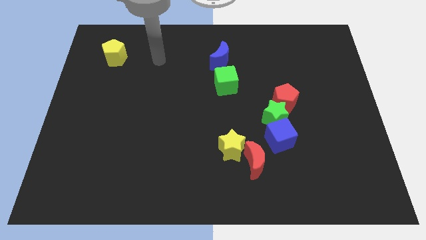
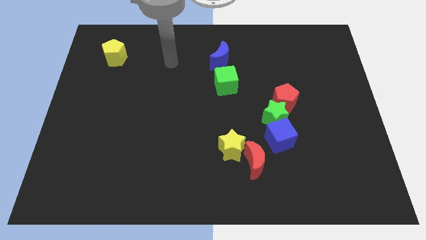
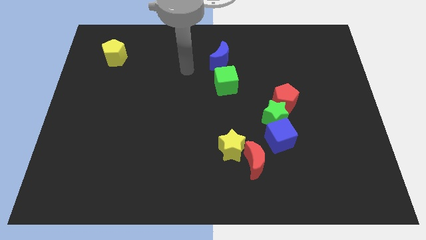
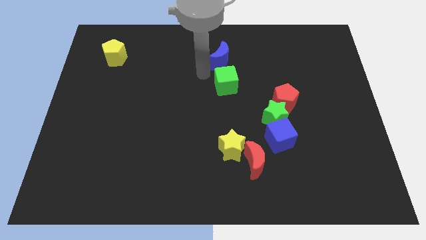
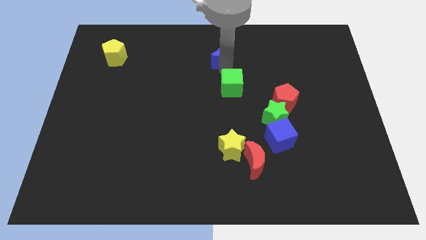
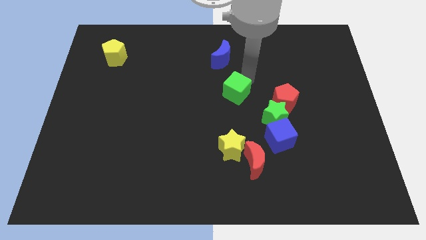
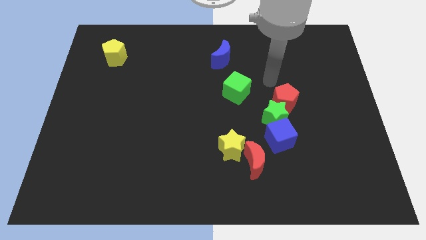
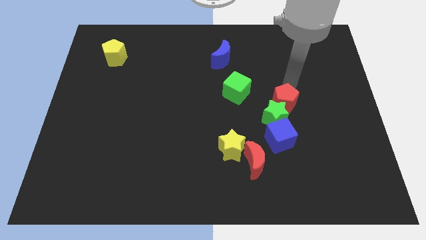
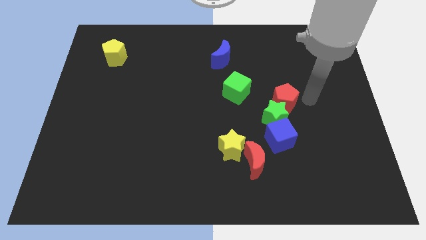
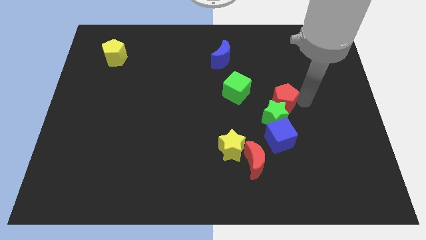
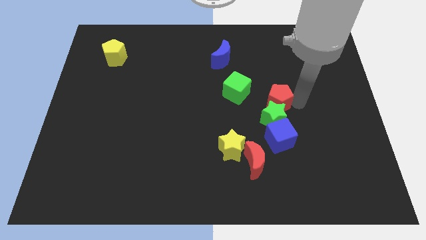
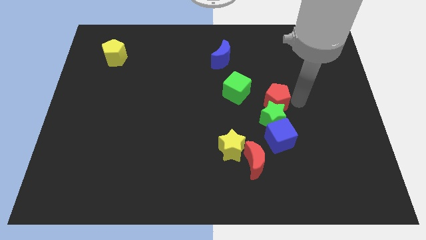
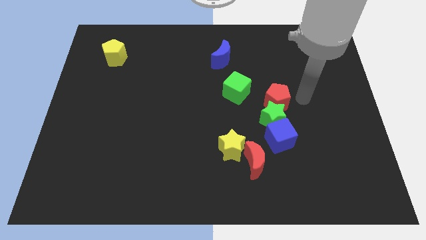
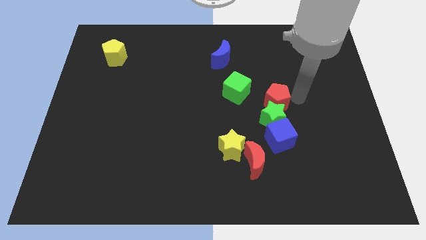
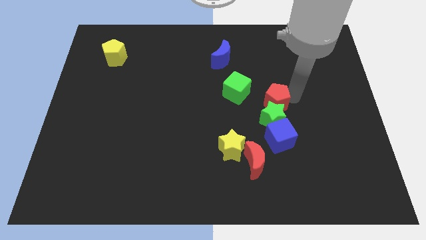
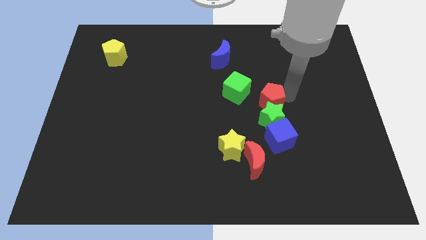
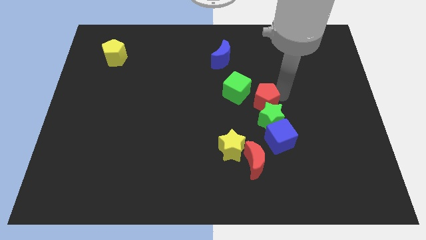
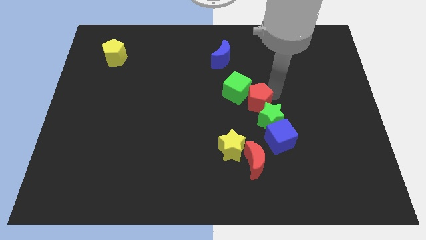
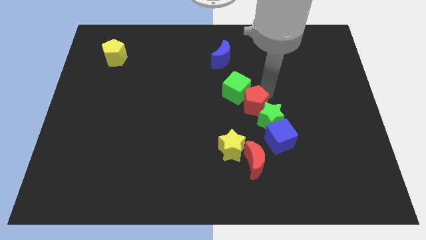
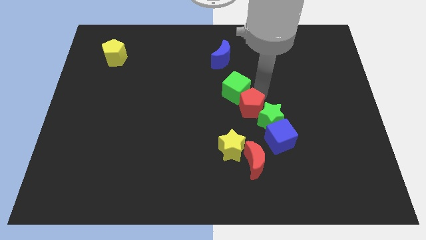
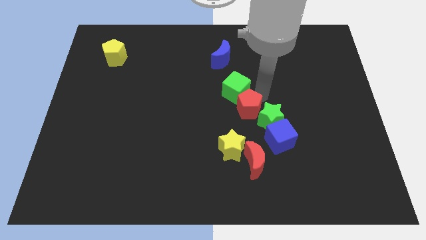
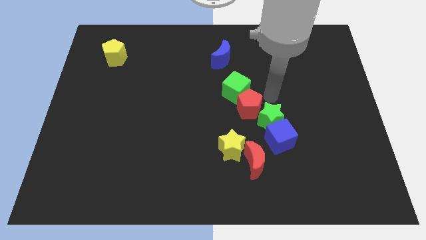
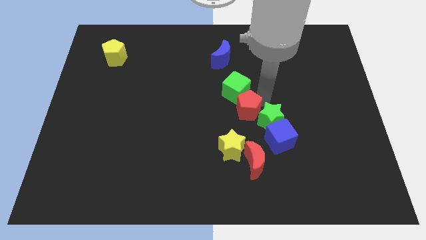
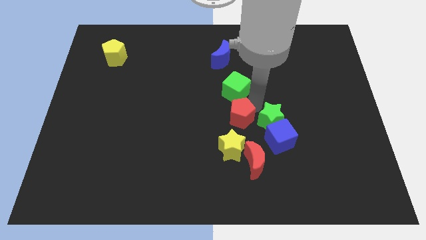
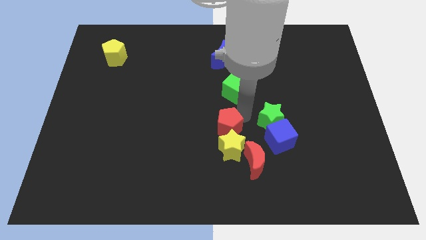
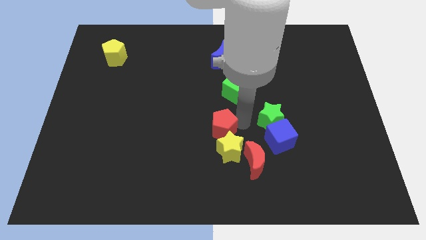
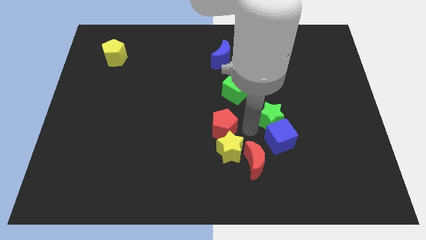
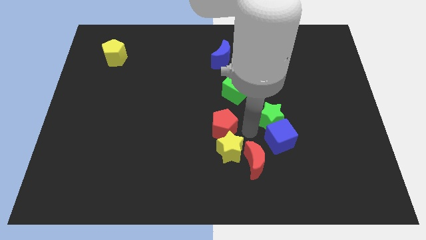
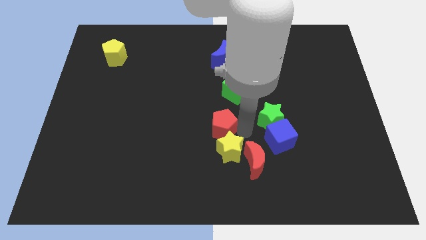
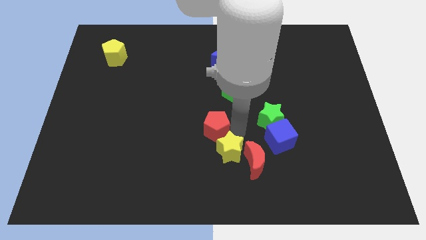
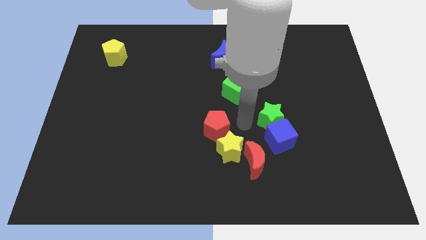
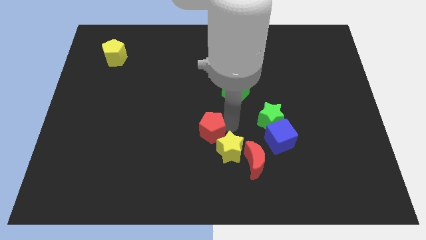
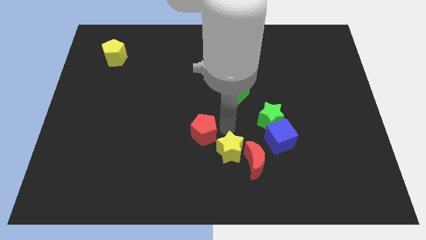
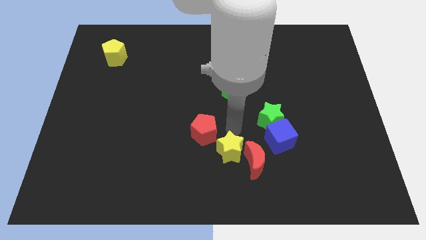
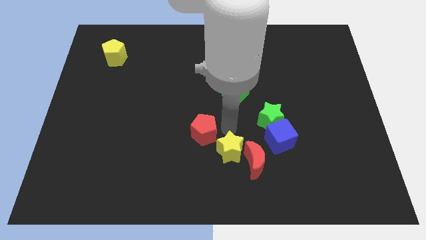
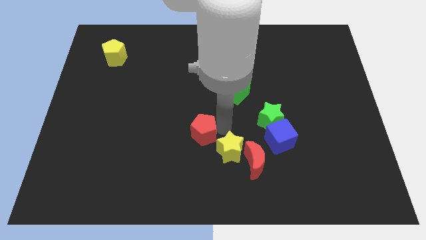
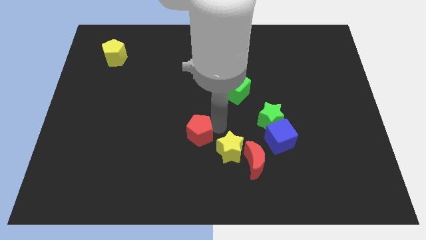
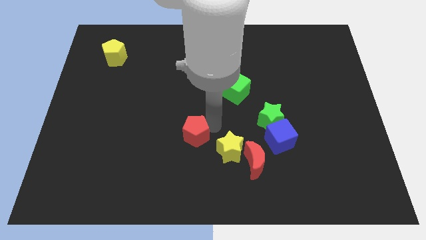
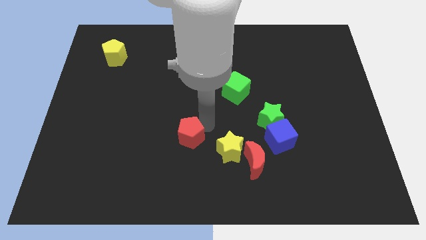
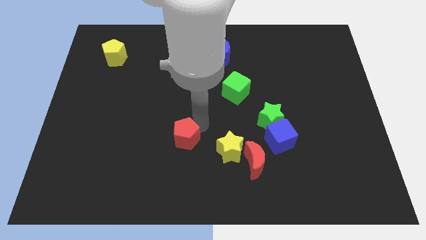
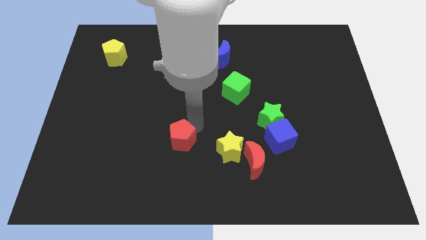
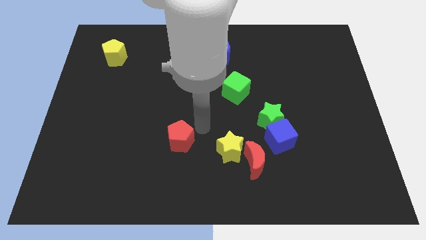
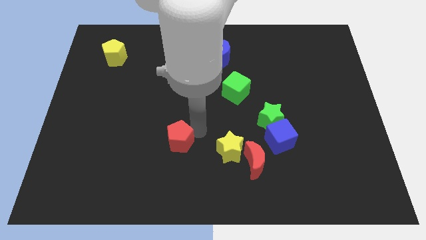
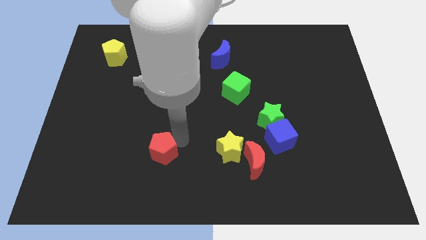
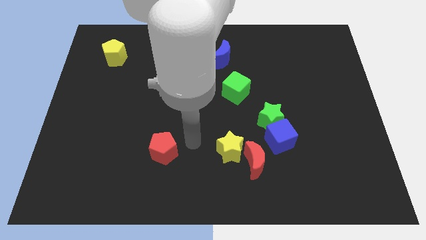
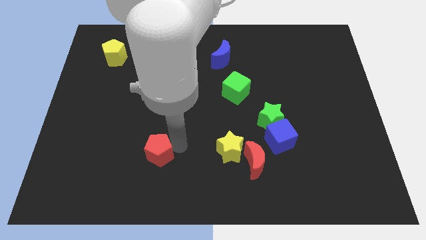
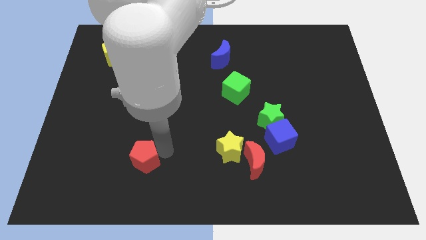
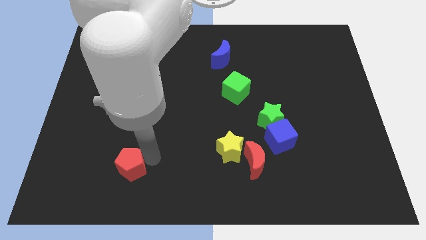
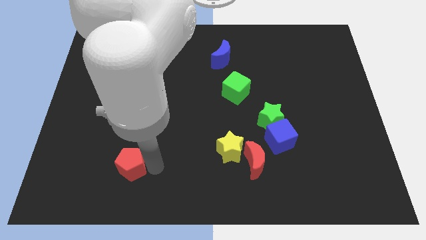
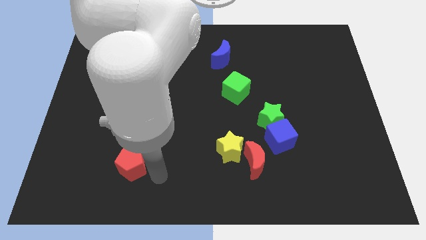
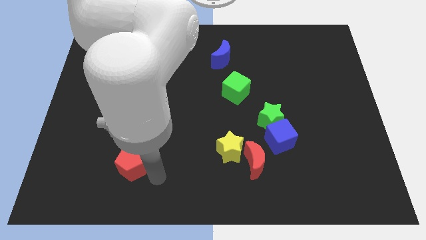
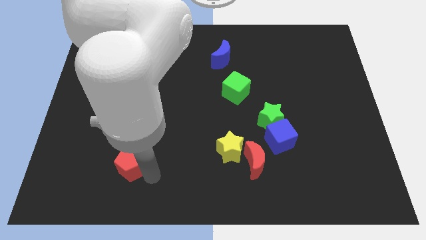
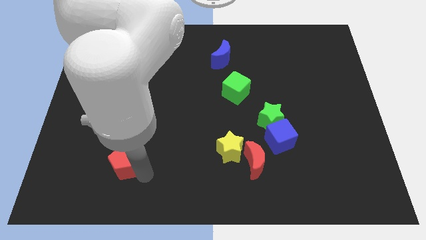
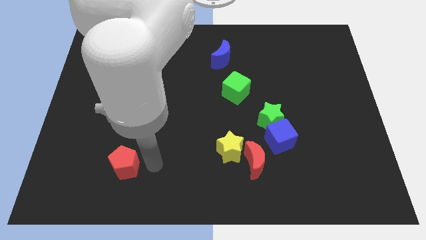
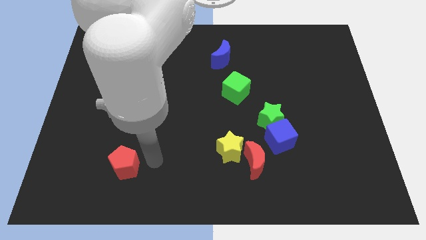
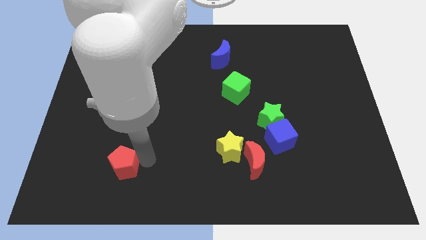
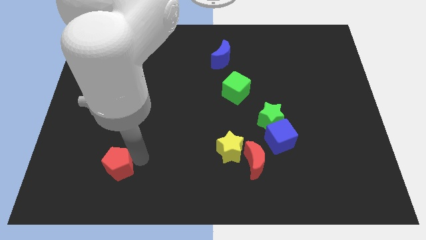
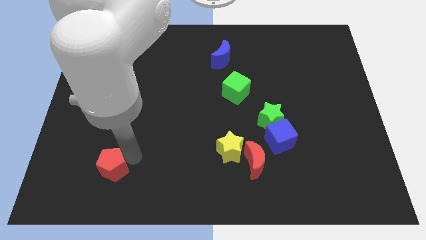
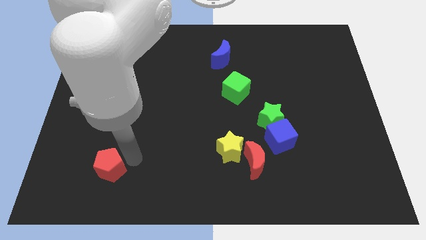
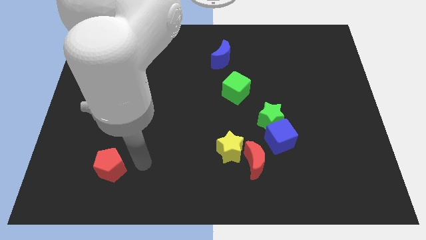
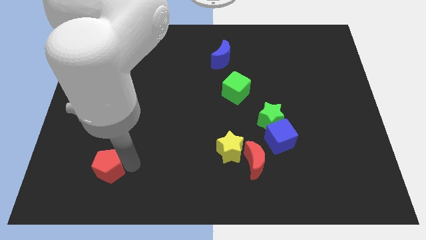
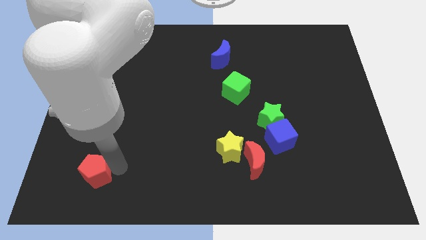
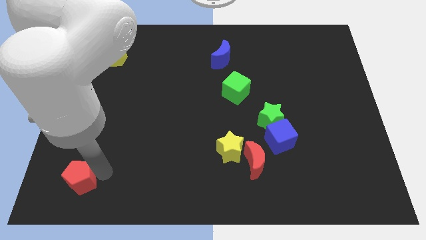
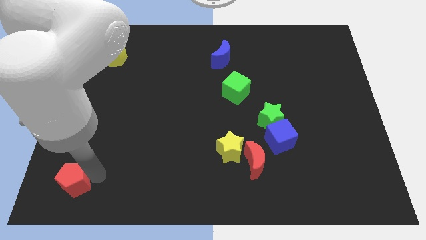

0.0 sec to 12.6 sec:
put the red pentagon to the bottom left corner

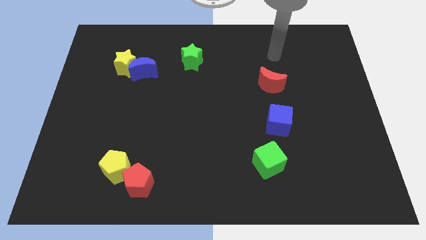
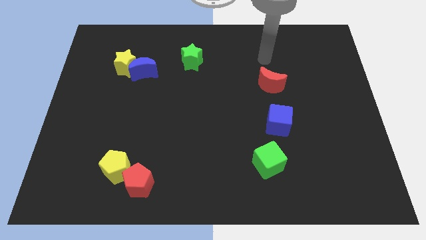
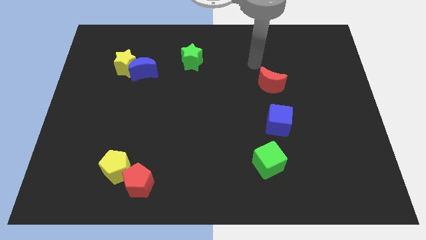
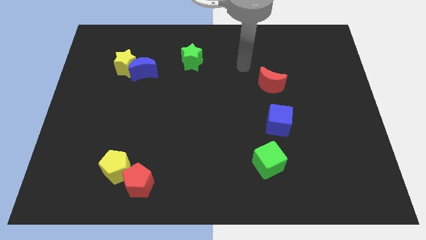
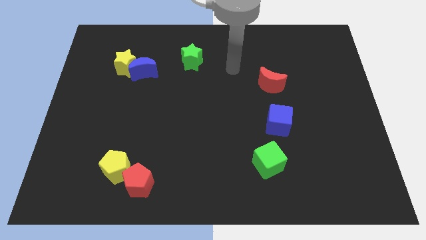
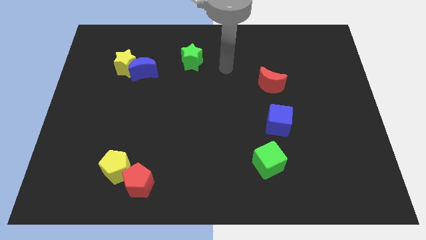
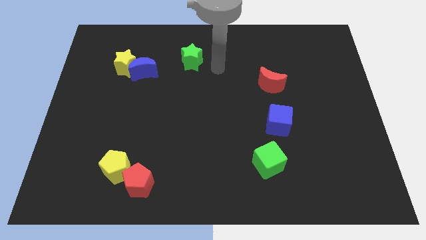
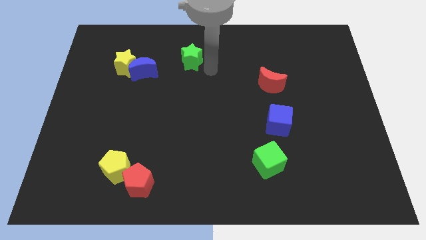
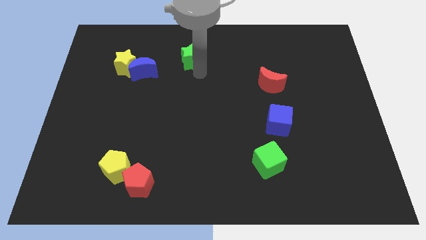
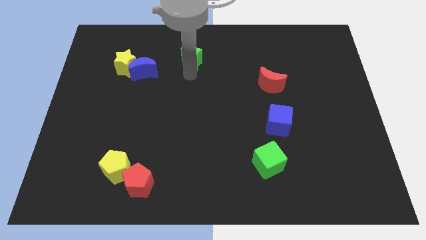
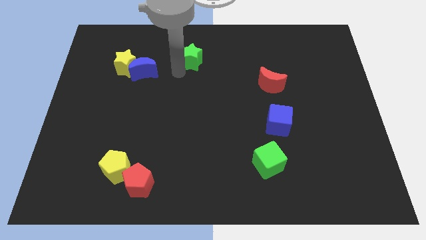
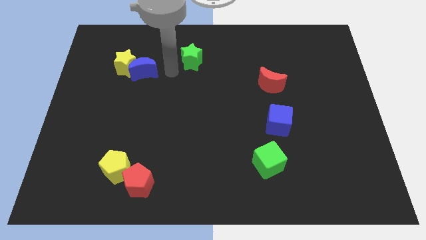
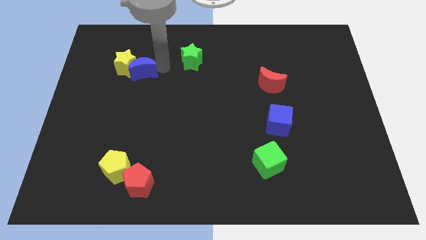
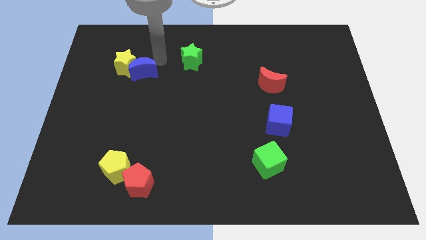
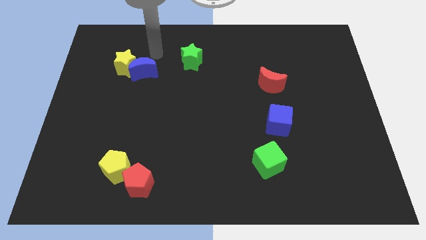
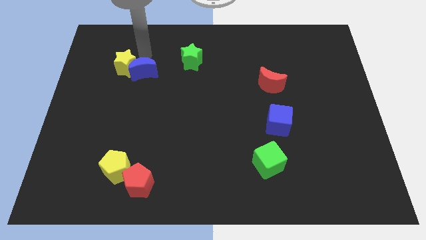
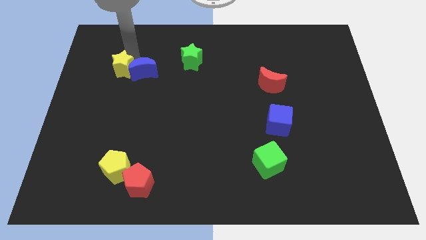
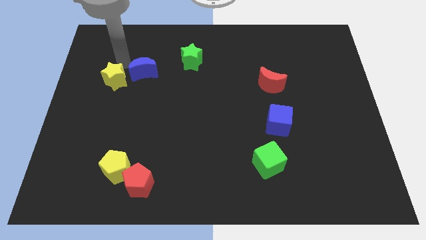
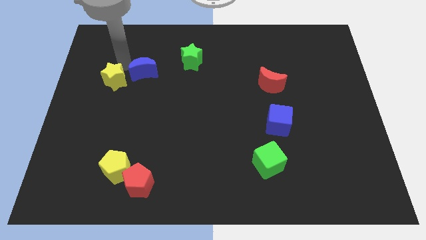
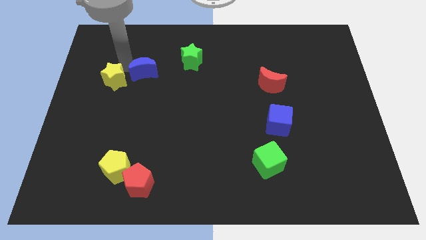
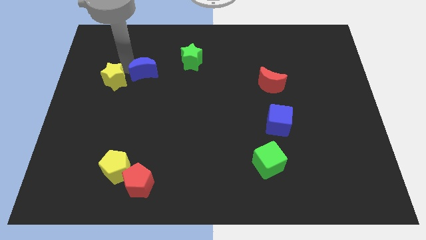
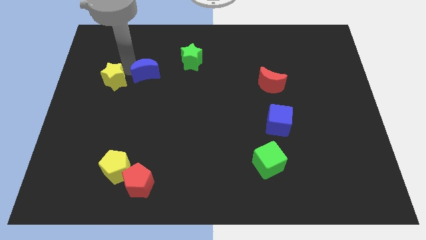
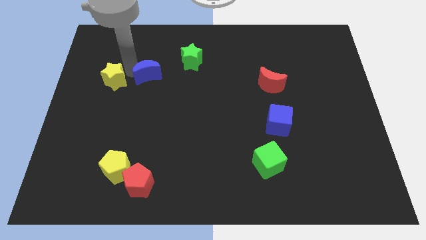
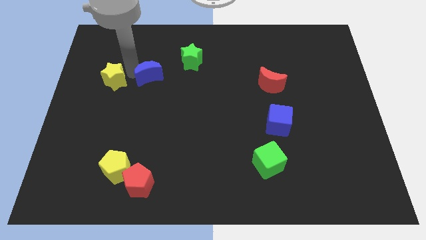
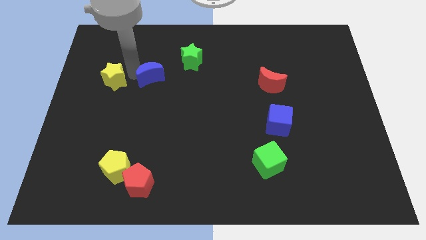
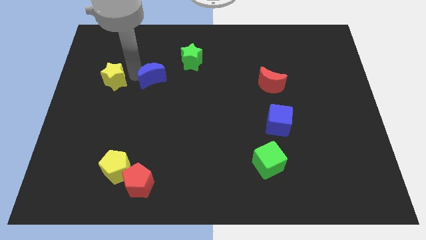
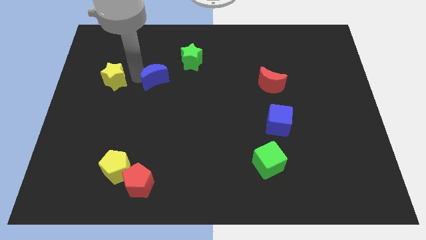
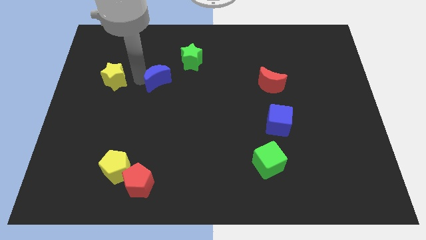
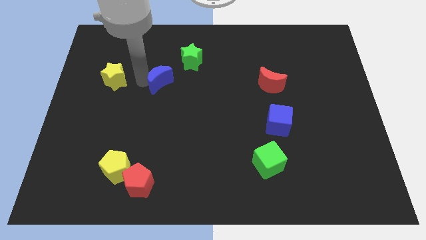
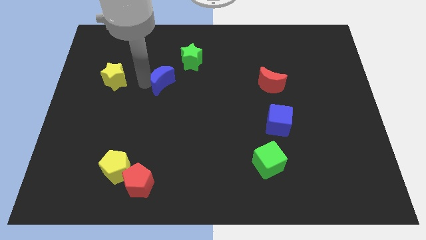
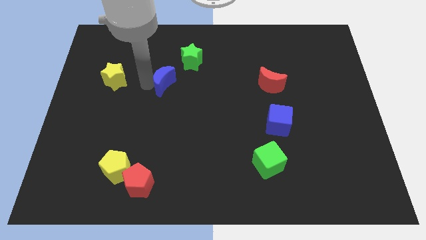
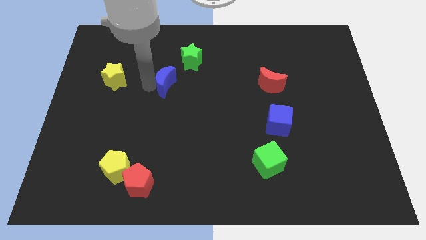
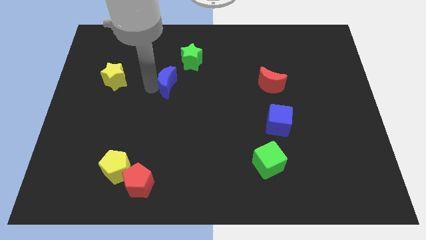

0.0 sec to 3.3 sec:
move the blue moon to the middle
